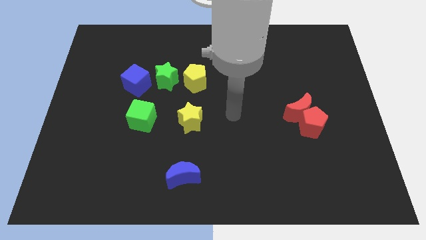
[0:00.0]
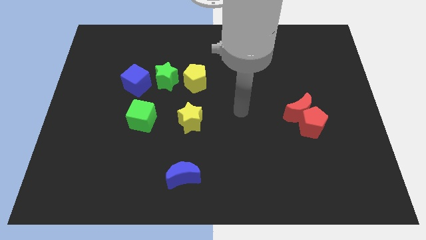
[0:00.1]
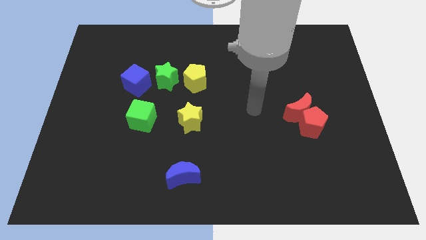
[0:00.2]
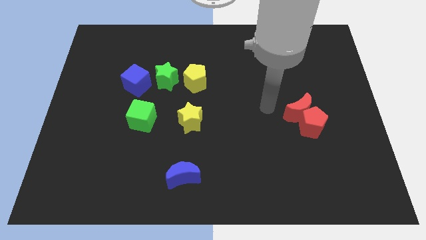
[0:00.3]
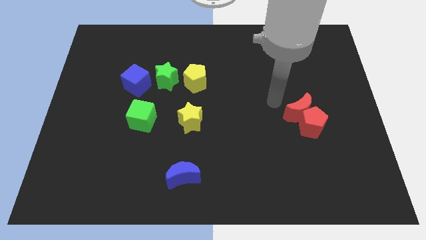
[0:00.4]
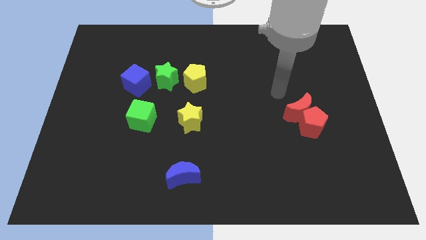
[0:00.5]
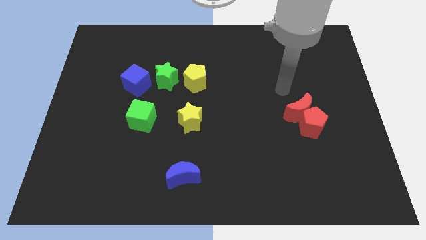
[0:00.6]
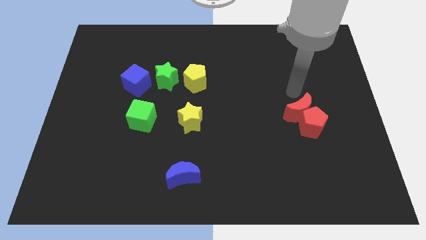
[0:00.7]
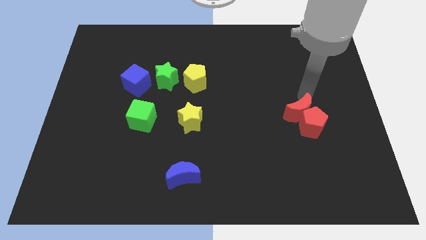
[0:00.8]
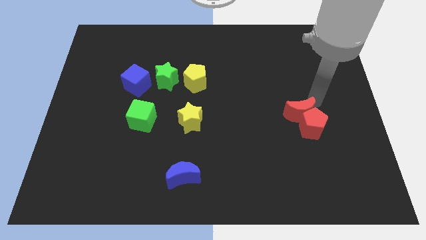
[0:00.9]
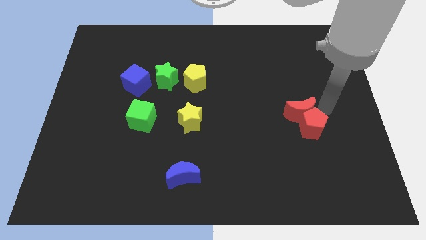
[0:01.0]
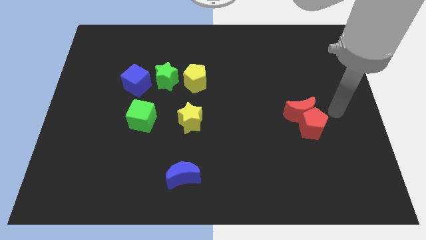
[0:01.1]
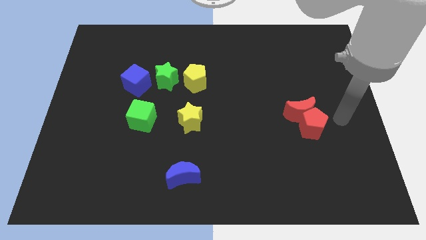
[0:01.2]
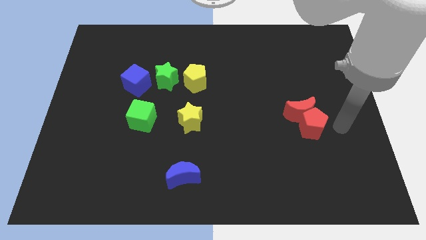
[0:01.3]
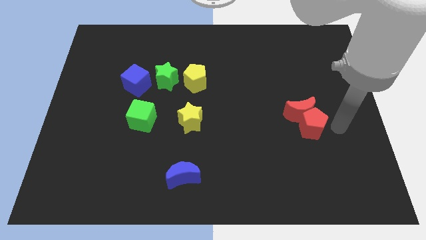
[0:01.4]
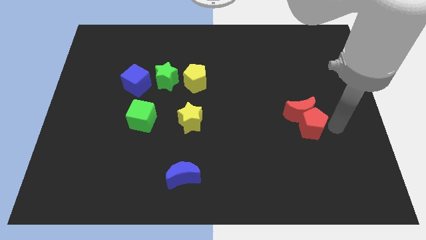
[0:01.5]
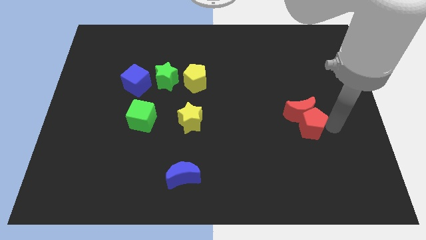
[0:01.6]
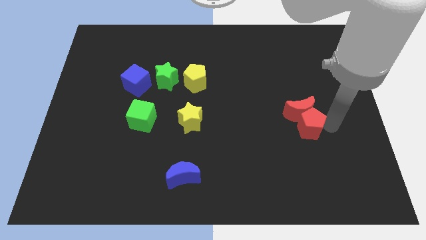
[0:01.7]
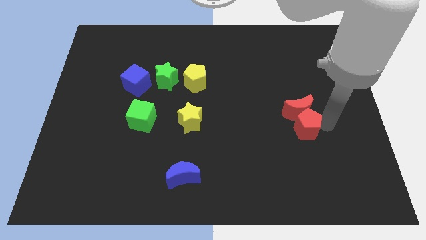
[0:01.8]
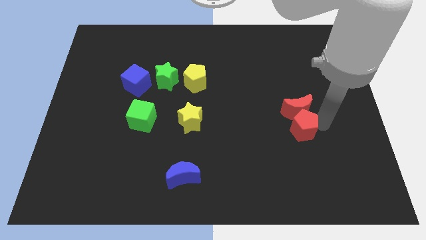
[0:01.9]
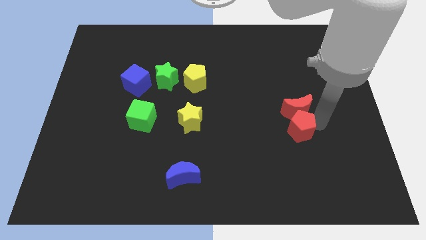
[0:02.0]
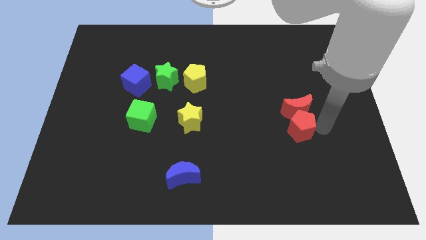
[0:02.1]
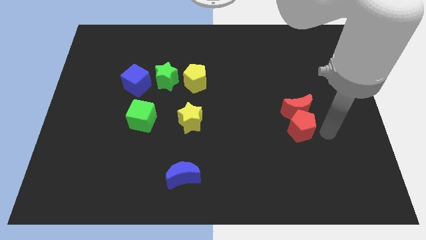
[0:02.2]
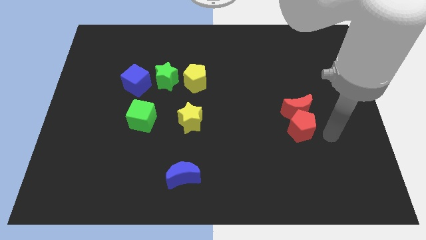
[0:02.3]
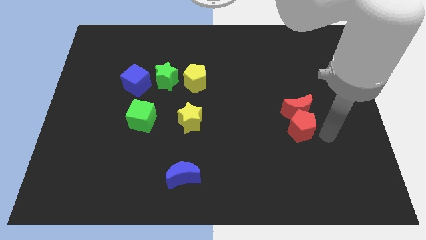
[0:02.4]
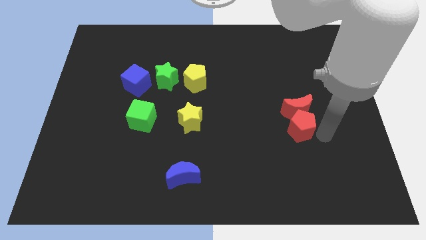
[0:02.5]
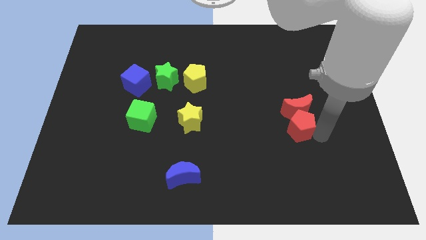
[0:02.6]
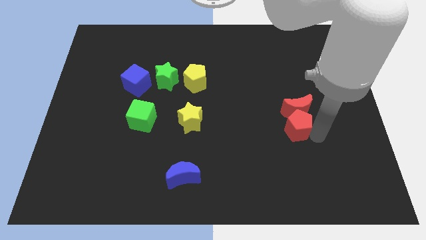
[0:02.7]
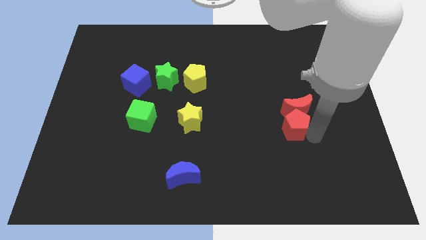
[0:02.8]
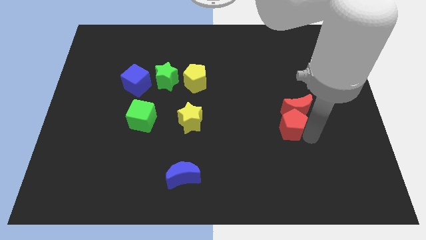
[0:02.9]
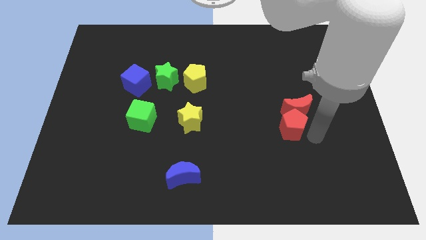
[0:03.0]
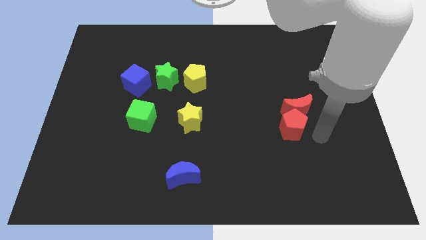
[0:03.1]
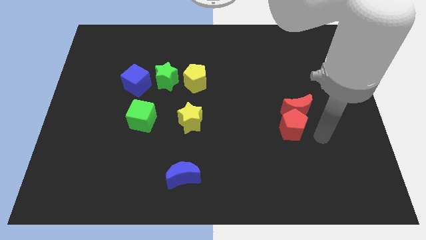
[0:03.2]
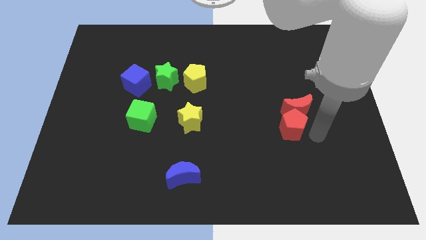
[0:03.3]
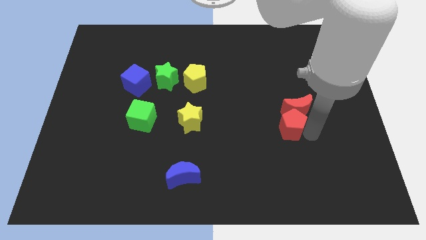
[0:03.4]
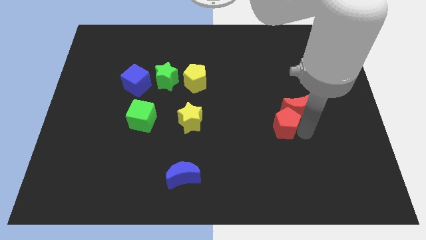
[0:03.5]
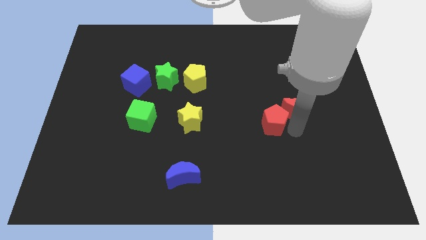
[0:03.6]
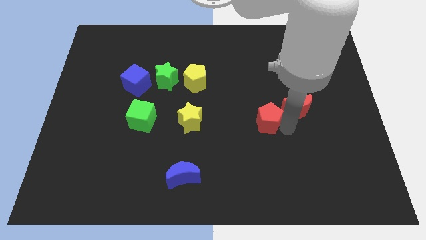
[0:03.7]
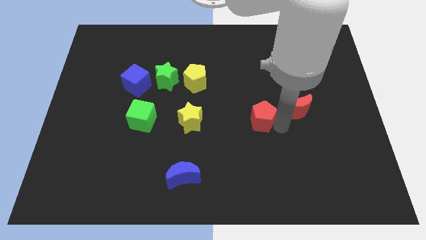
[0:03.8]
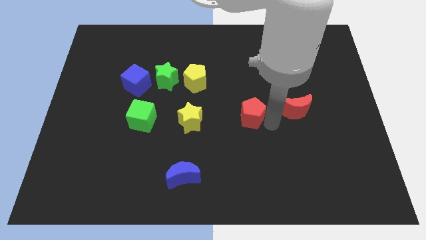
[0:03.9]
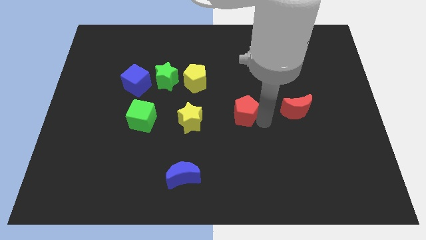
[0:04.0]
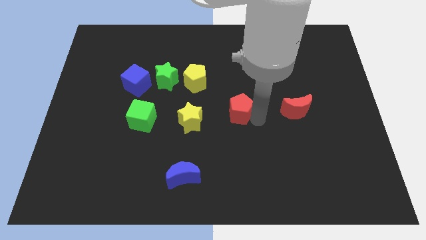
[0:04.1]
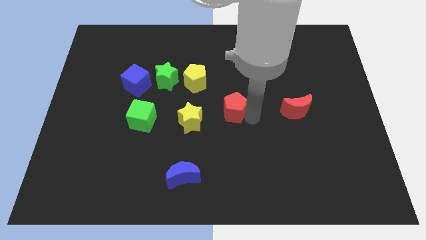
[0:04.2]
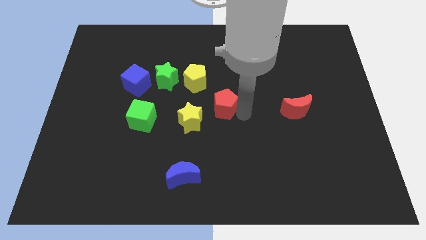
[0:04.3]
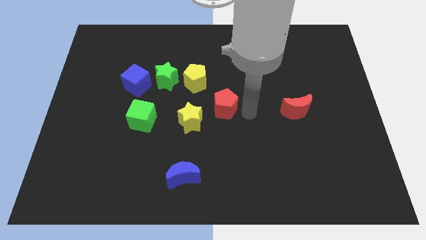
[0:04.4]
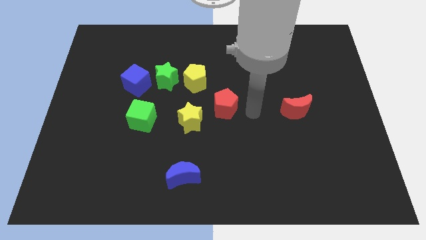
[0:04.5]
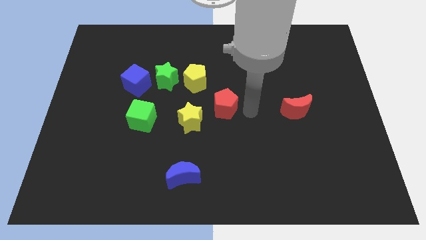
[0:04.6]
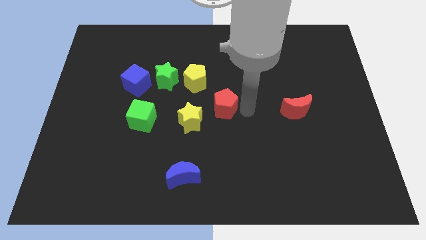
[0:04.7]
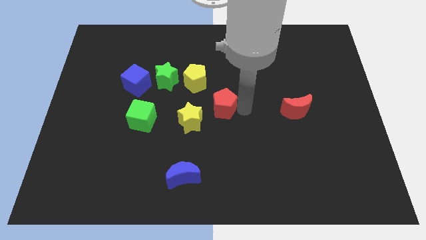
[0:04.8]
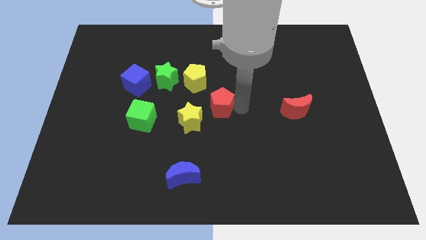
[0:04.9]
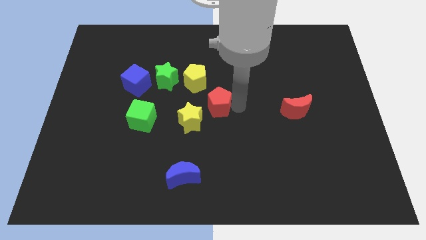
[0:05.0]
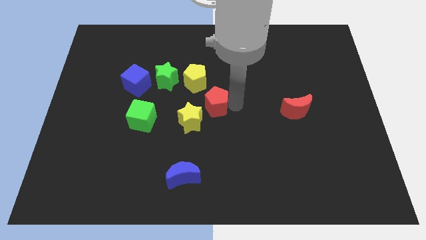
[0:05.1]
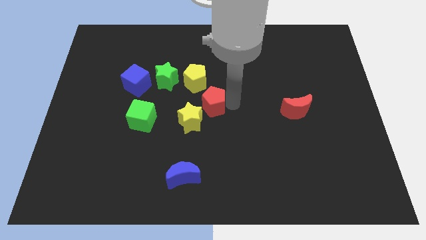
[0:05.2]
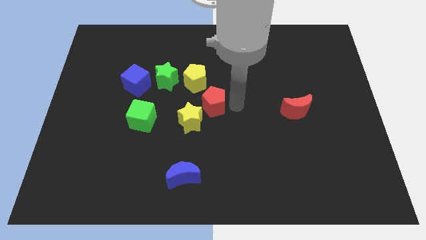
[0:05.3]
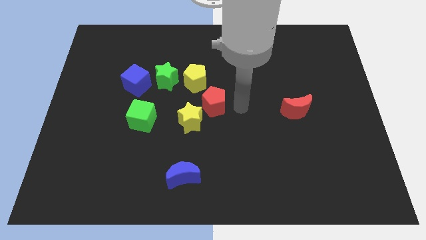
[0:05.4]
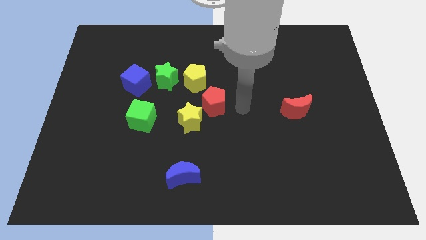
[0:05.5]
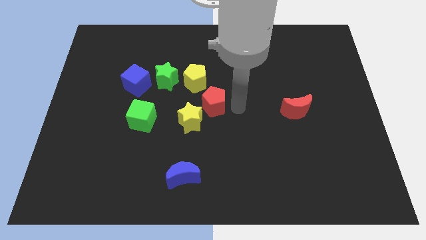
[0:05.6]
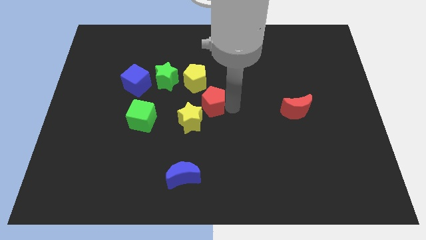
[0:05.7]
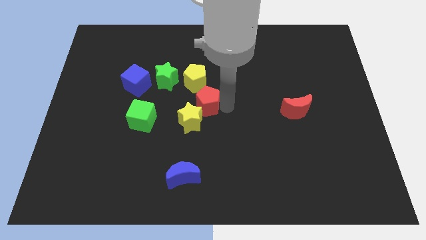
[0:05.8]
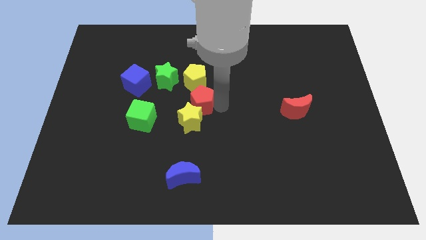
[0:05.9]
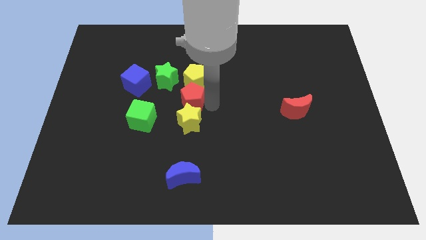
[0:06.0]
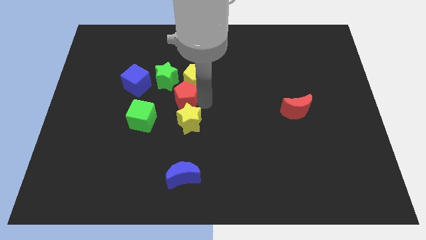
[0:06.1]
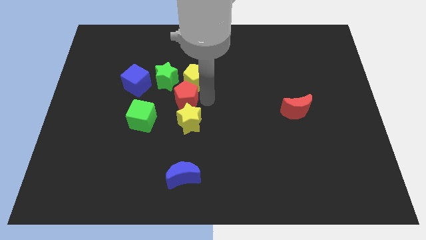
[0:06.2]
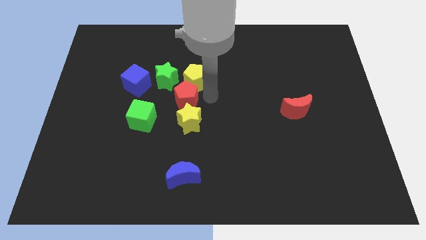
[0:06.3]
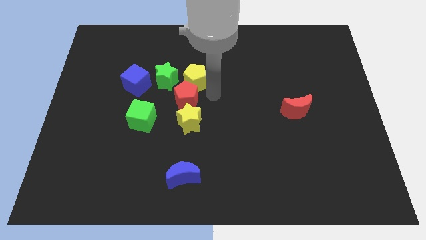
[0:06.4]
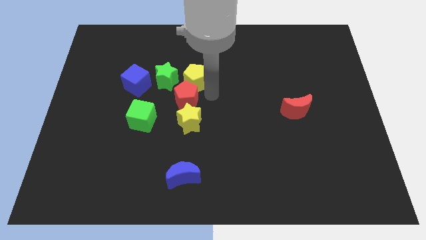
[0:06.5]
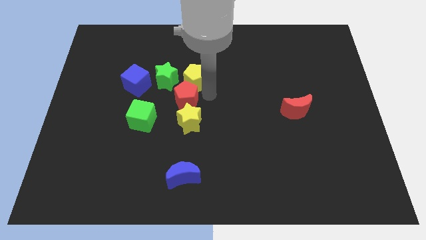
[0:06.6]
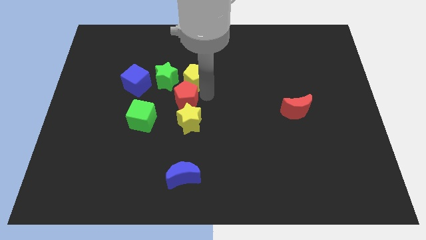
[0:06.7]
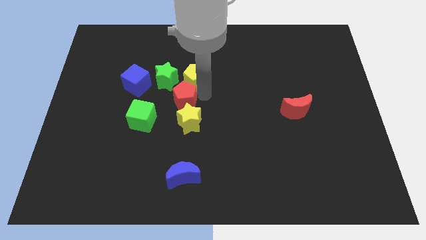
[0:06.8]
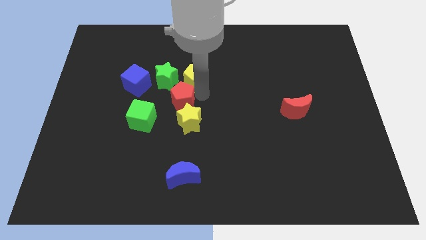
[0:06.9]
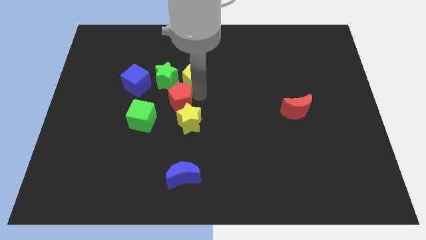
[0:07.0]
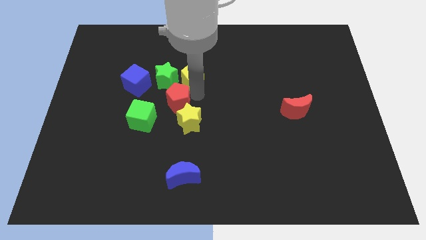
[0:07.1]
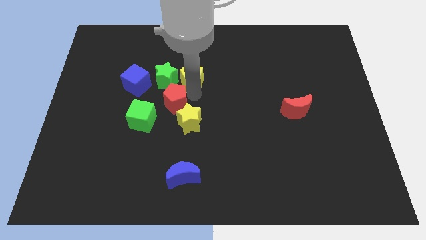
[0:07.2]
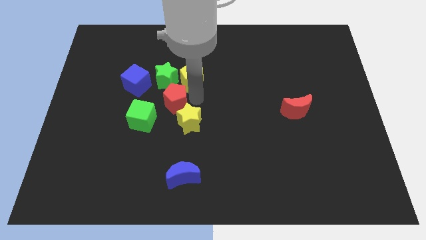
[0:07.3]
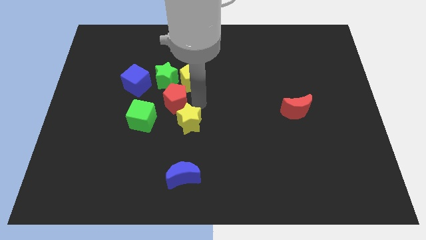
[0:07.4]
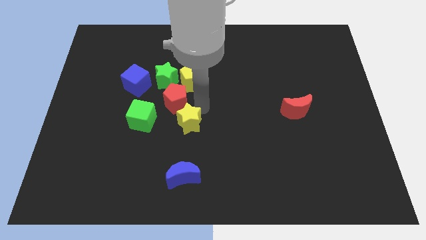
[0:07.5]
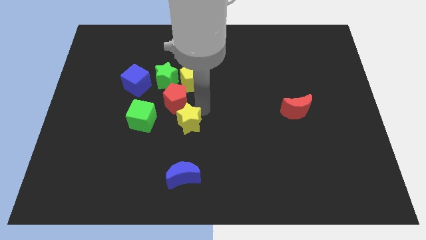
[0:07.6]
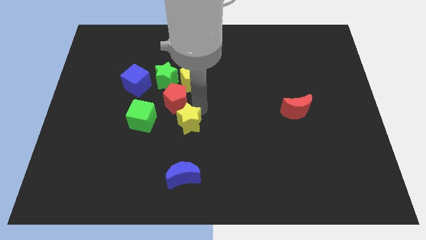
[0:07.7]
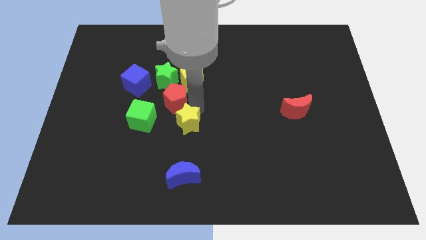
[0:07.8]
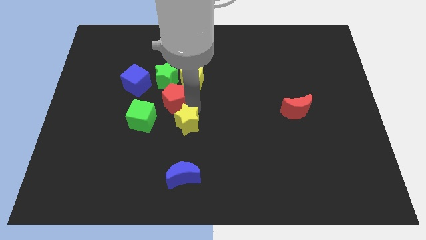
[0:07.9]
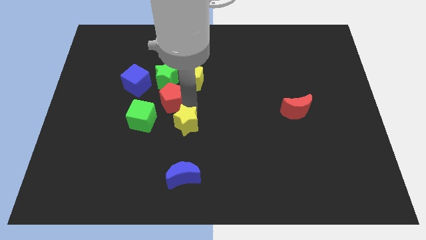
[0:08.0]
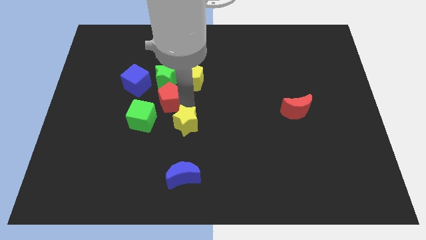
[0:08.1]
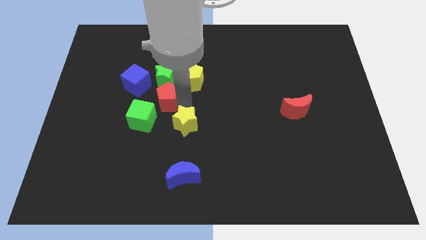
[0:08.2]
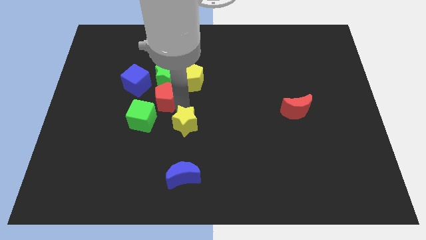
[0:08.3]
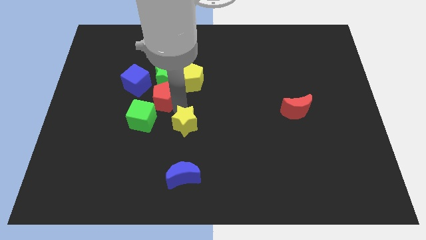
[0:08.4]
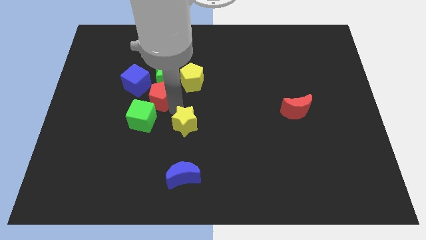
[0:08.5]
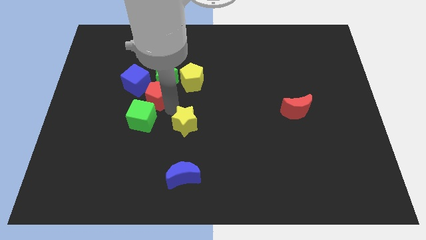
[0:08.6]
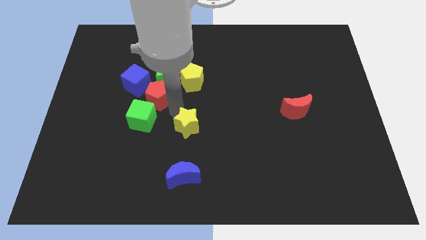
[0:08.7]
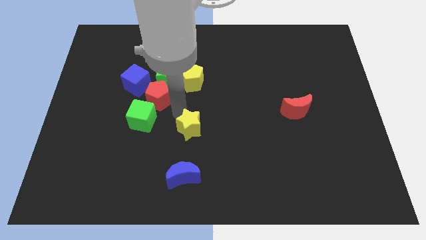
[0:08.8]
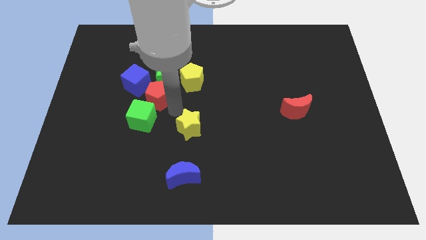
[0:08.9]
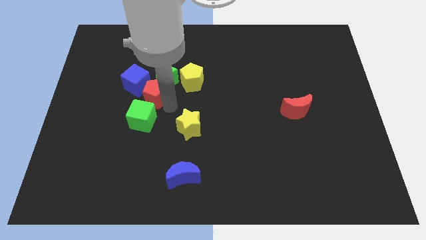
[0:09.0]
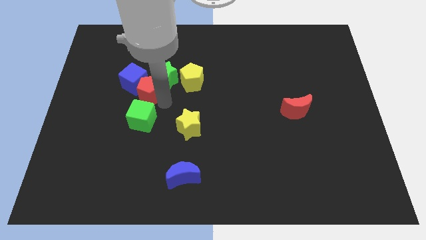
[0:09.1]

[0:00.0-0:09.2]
move the red pentagon to the blue cube
